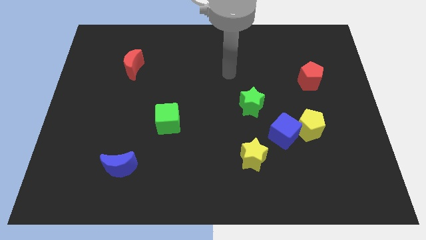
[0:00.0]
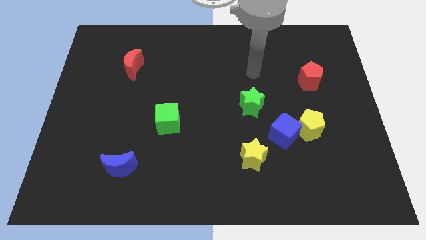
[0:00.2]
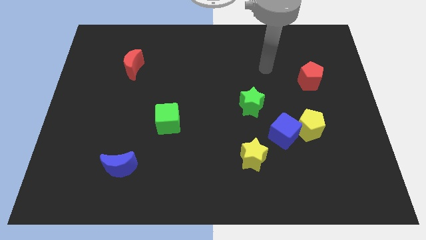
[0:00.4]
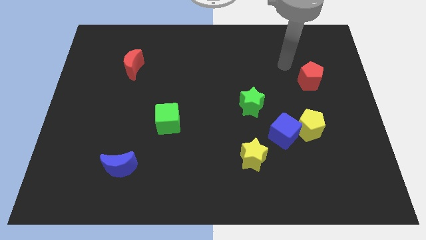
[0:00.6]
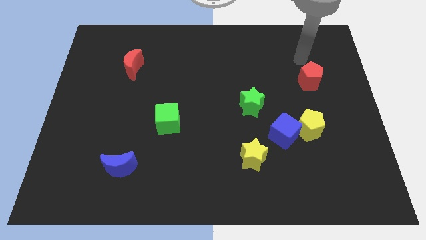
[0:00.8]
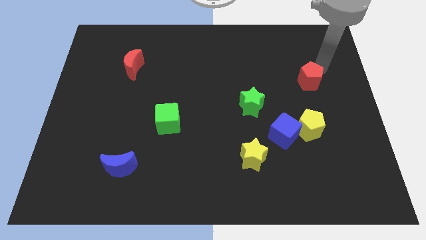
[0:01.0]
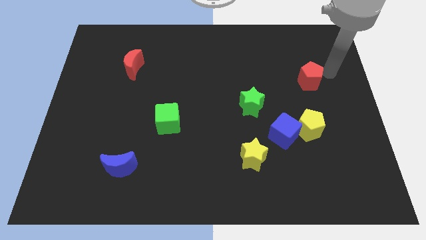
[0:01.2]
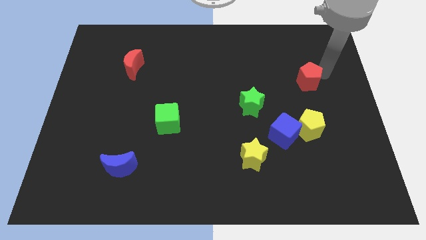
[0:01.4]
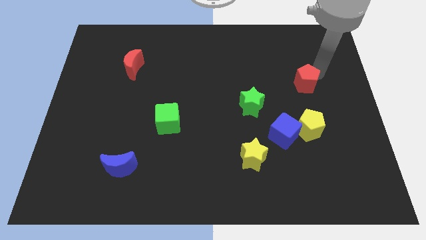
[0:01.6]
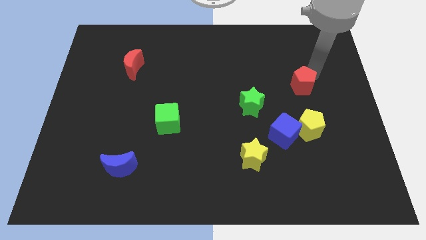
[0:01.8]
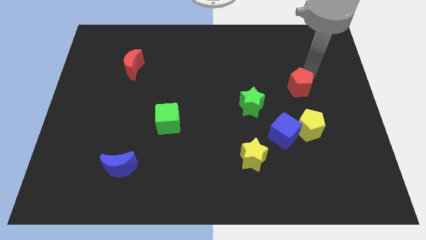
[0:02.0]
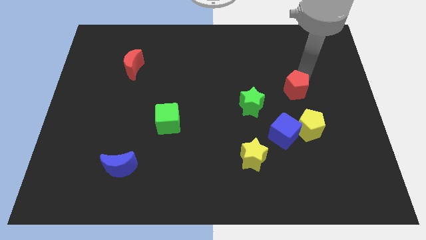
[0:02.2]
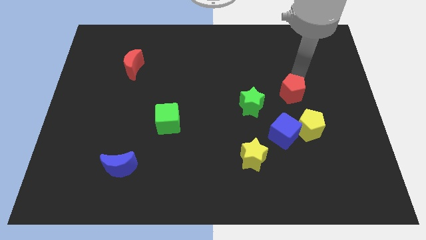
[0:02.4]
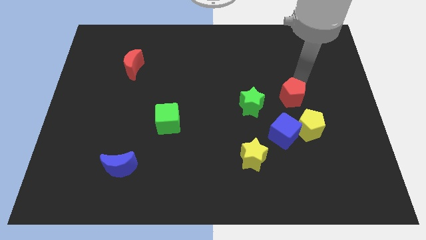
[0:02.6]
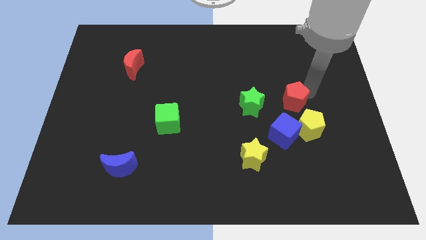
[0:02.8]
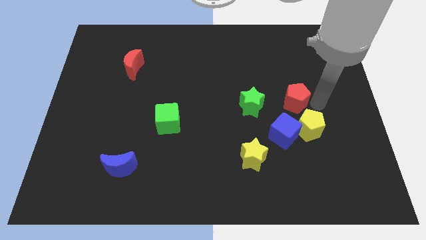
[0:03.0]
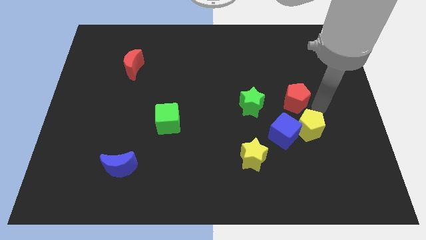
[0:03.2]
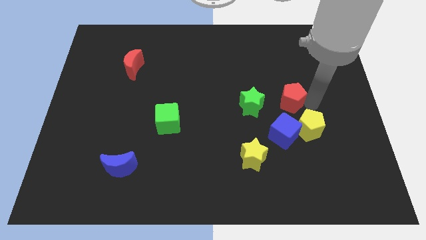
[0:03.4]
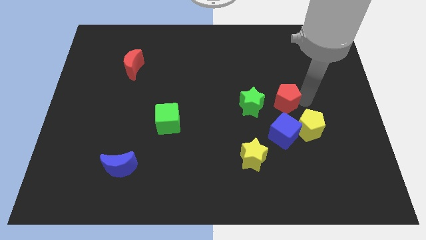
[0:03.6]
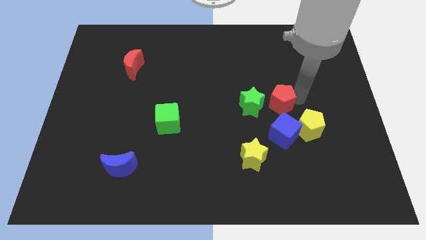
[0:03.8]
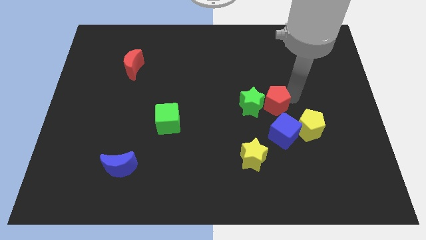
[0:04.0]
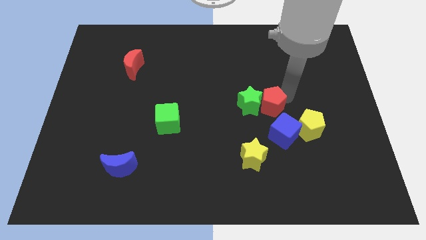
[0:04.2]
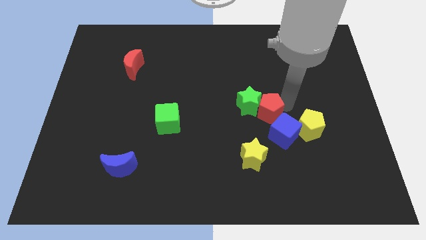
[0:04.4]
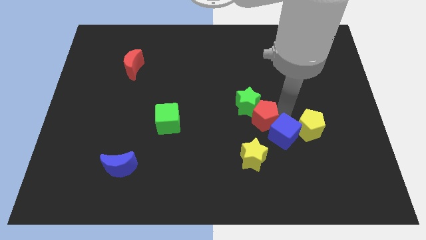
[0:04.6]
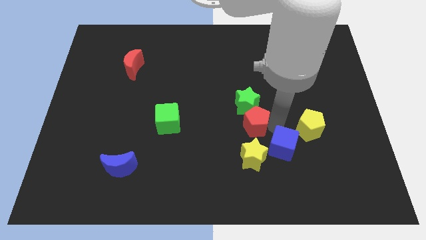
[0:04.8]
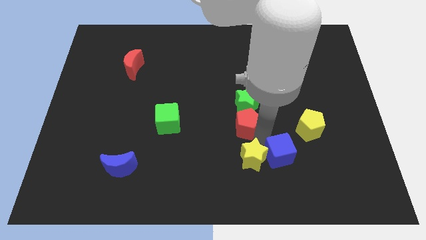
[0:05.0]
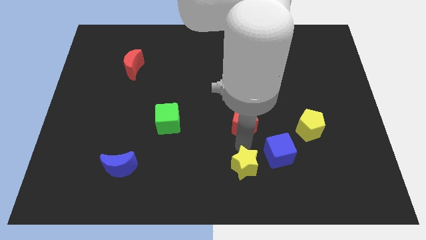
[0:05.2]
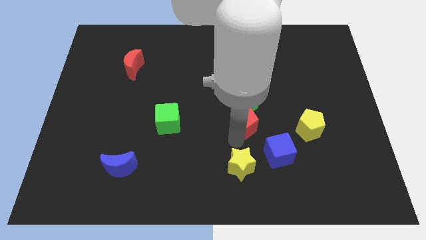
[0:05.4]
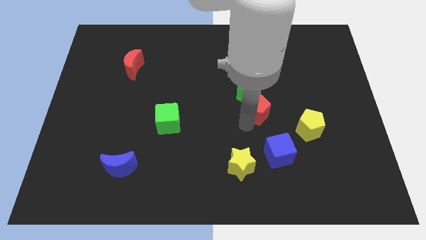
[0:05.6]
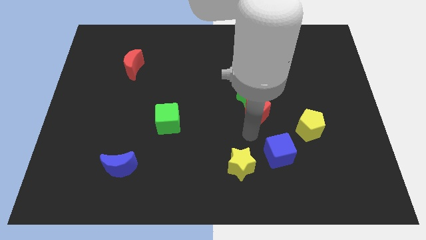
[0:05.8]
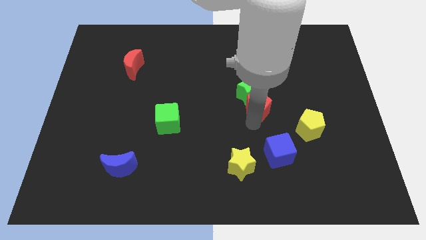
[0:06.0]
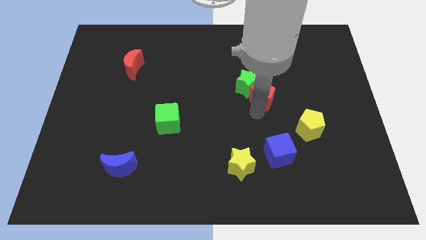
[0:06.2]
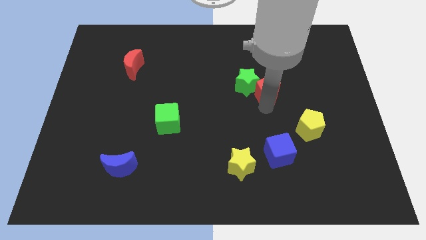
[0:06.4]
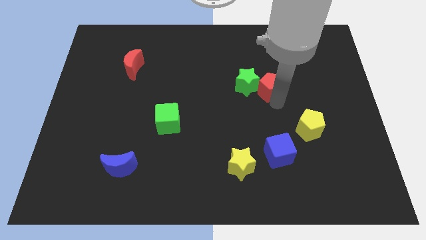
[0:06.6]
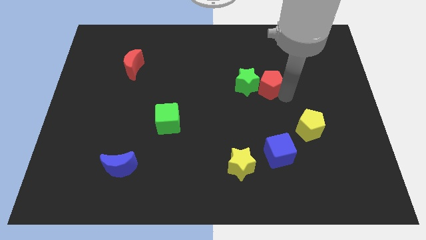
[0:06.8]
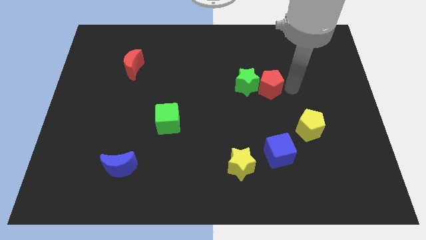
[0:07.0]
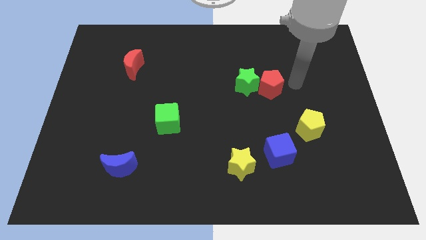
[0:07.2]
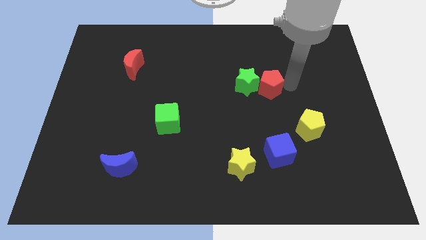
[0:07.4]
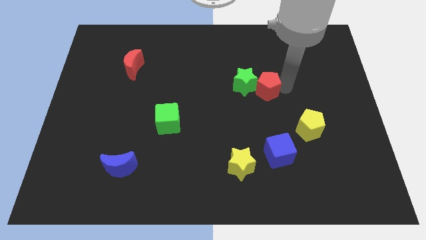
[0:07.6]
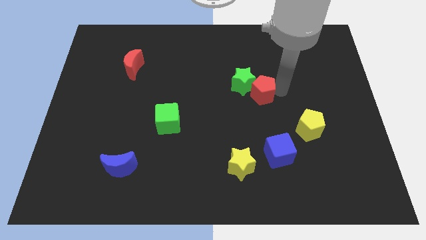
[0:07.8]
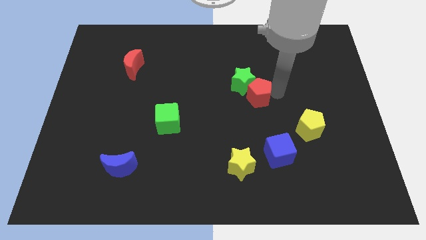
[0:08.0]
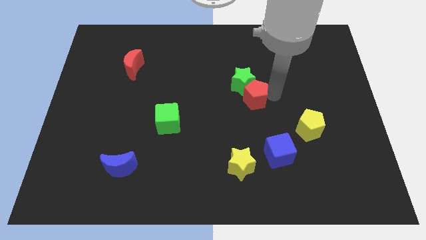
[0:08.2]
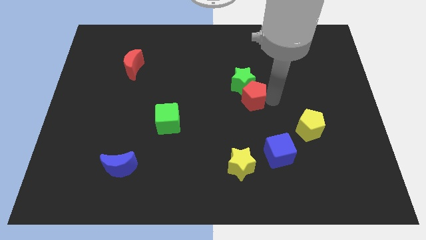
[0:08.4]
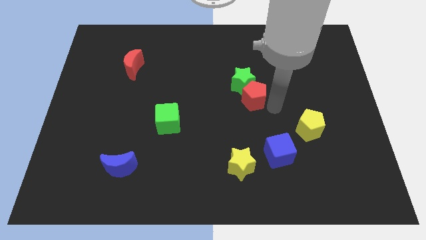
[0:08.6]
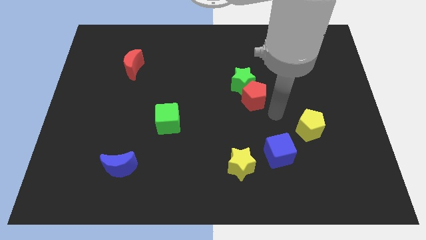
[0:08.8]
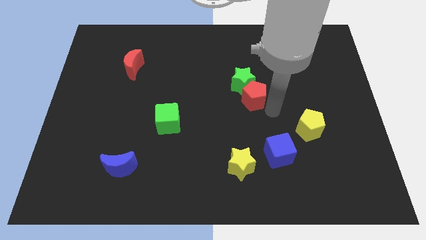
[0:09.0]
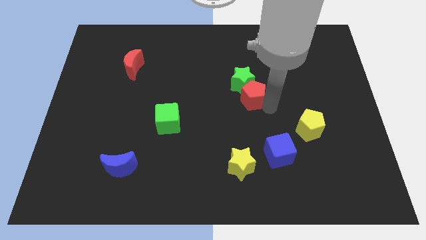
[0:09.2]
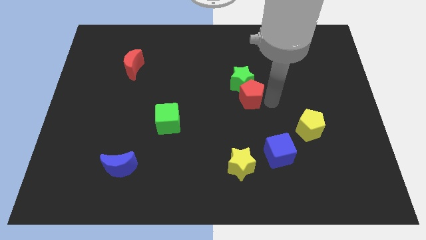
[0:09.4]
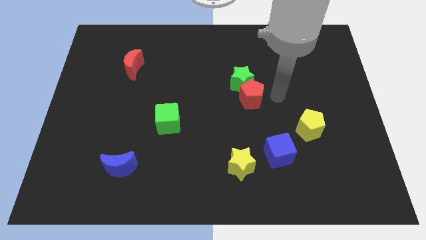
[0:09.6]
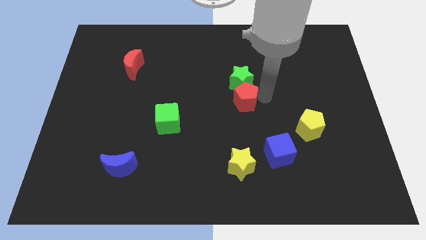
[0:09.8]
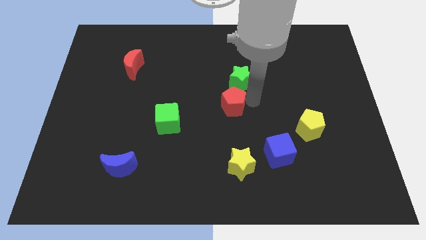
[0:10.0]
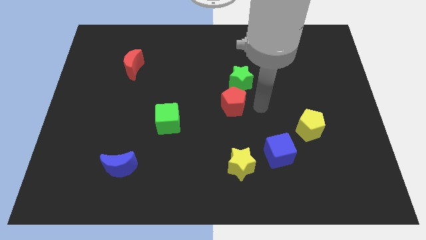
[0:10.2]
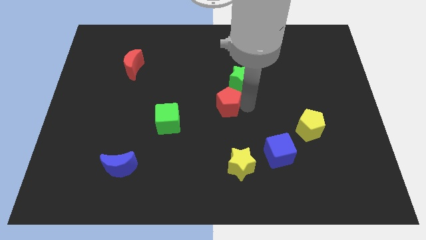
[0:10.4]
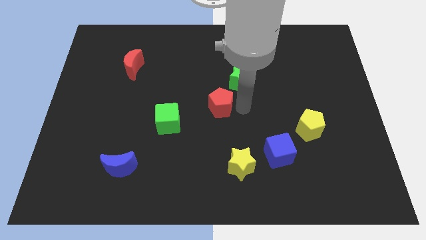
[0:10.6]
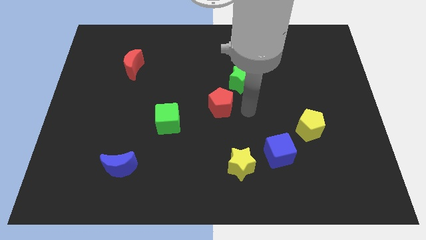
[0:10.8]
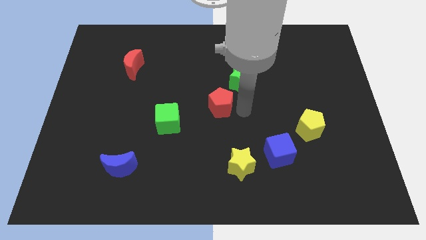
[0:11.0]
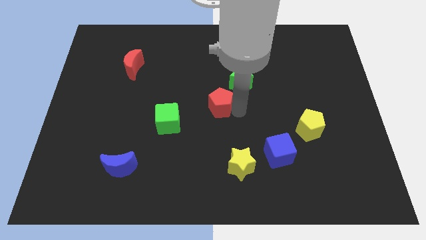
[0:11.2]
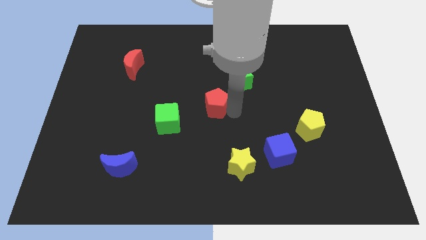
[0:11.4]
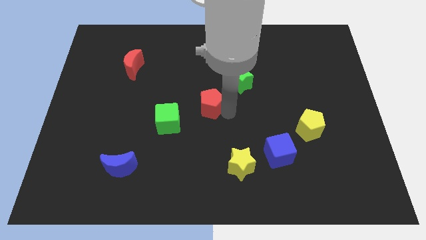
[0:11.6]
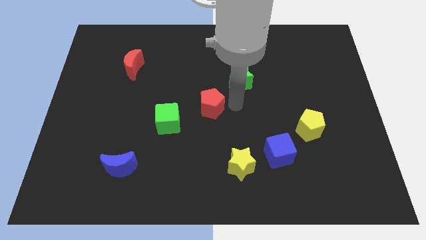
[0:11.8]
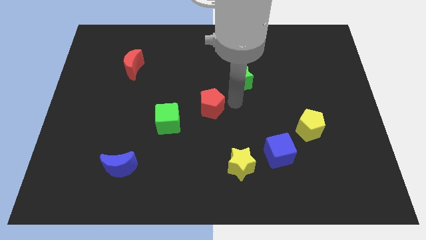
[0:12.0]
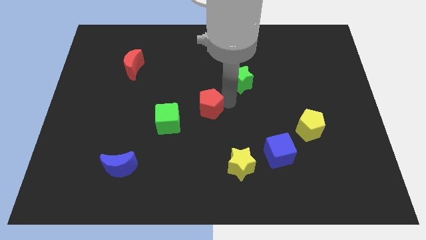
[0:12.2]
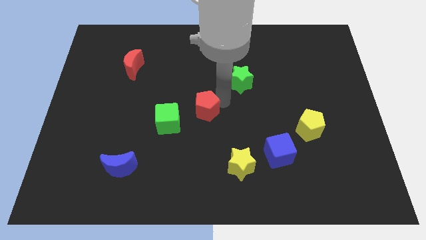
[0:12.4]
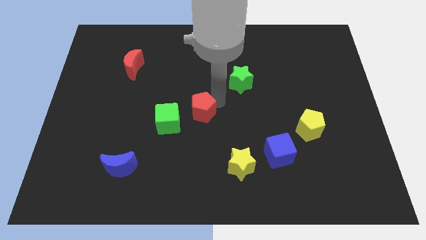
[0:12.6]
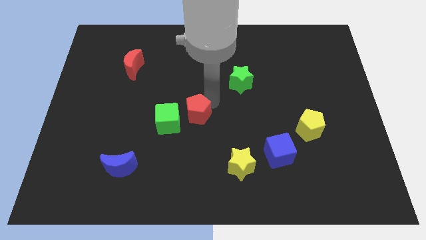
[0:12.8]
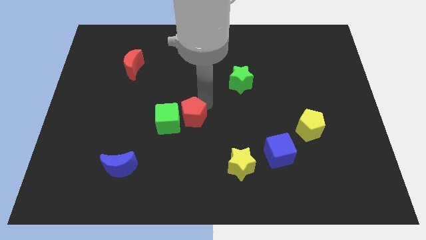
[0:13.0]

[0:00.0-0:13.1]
put the red pentagon towards the green cube
